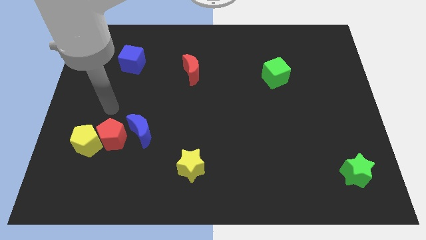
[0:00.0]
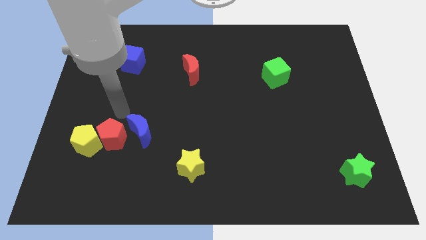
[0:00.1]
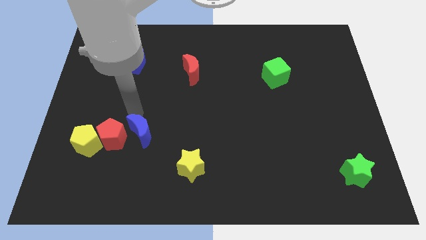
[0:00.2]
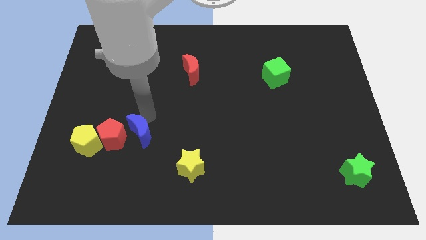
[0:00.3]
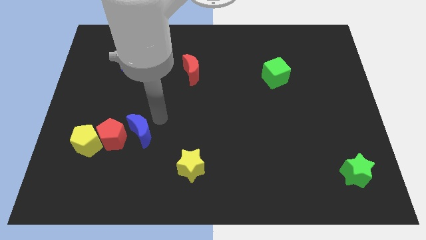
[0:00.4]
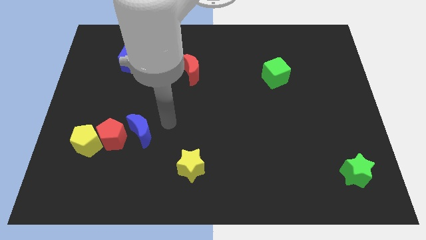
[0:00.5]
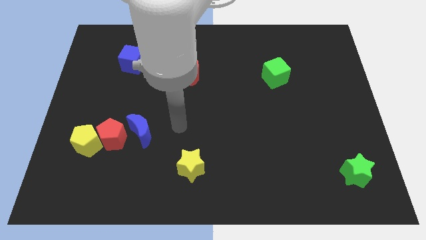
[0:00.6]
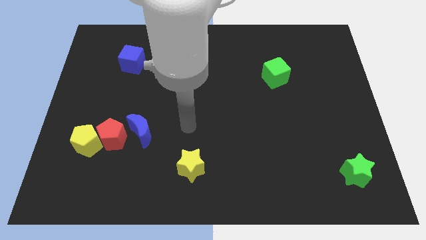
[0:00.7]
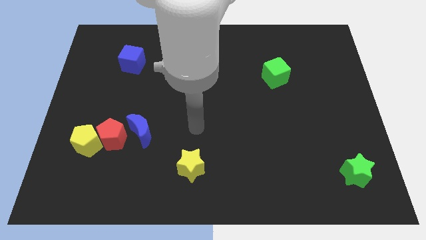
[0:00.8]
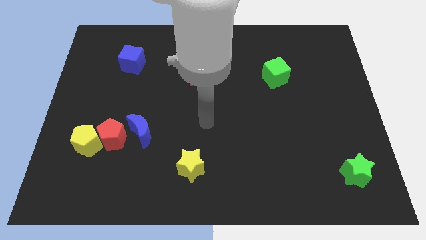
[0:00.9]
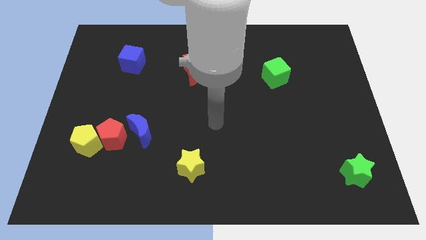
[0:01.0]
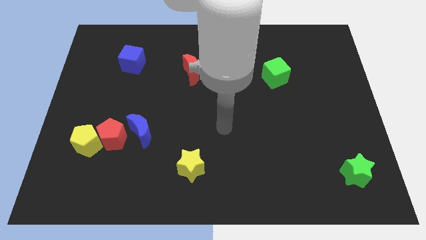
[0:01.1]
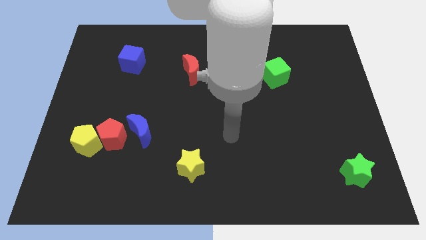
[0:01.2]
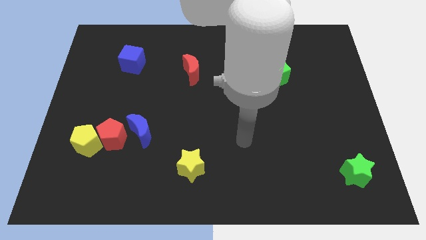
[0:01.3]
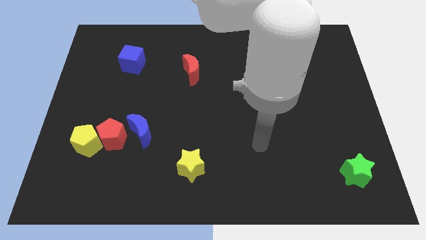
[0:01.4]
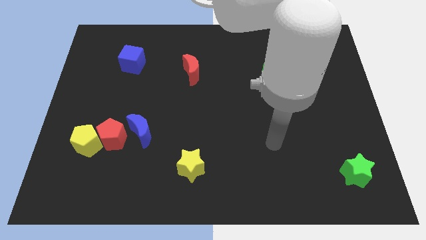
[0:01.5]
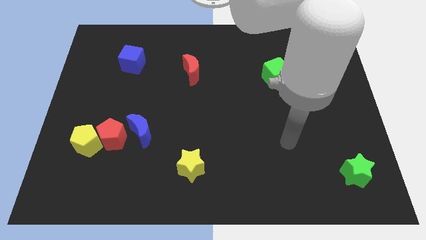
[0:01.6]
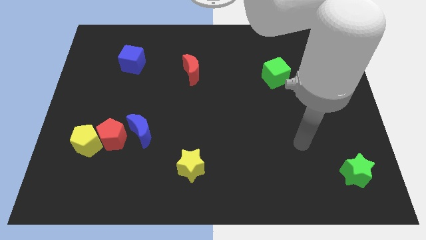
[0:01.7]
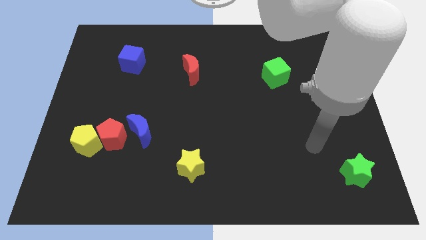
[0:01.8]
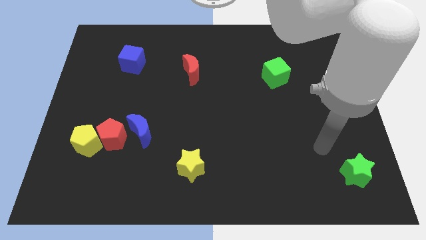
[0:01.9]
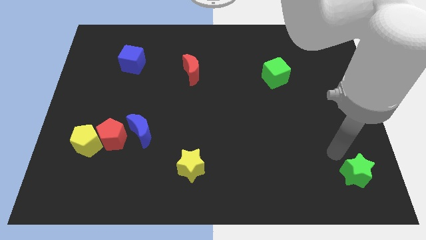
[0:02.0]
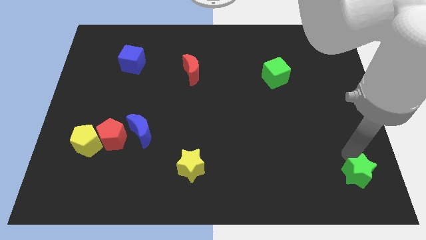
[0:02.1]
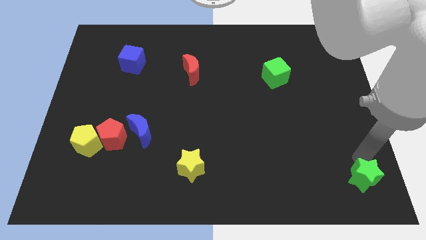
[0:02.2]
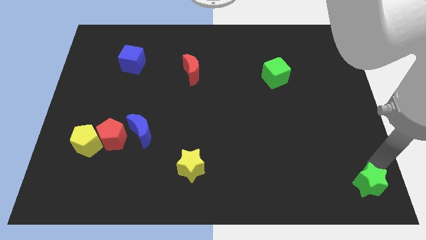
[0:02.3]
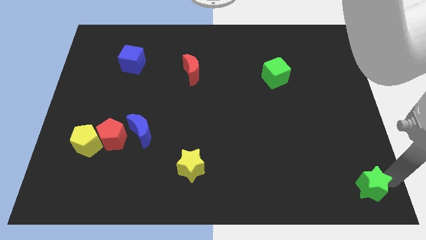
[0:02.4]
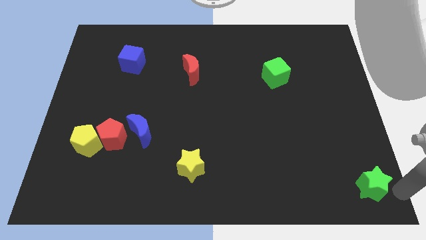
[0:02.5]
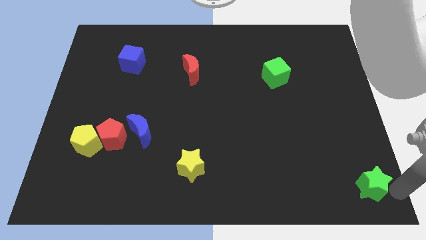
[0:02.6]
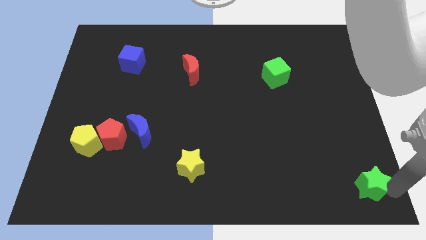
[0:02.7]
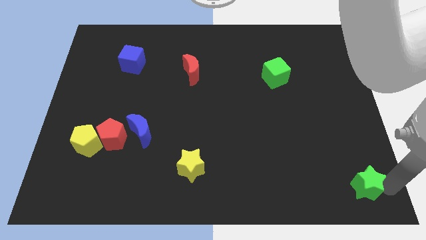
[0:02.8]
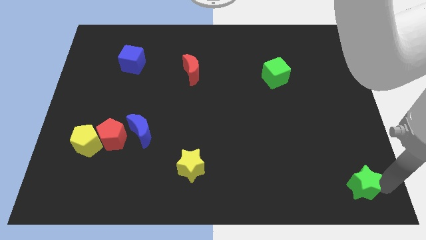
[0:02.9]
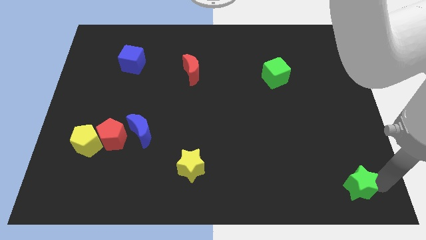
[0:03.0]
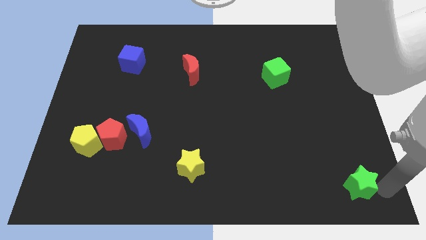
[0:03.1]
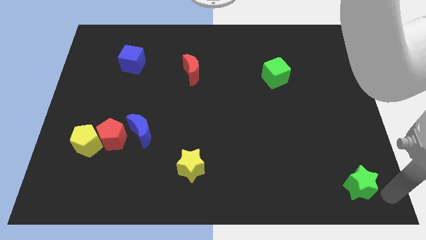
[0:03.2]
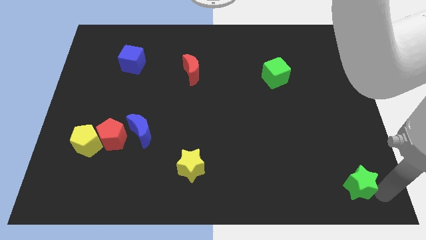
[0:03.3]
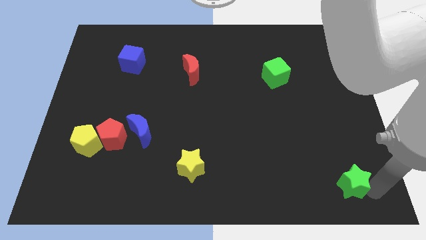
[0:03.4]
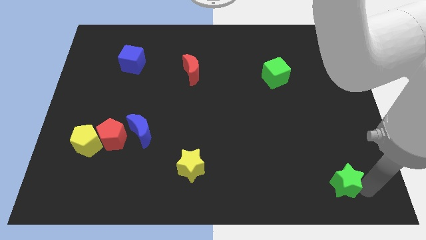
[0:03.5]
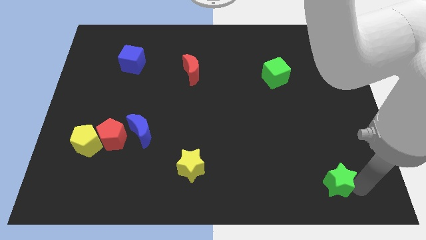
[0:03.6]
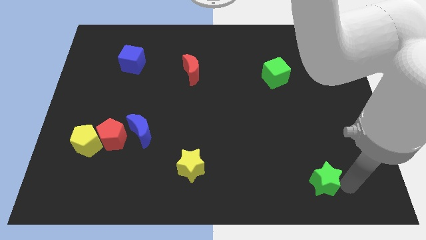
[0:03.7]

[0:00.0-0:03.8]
push the green star to the left slightly

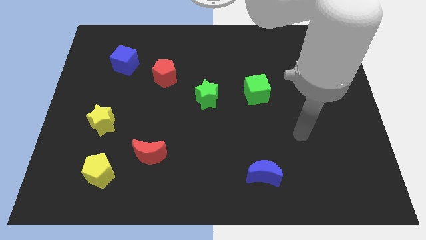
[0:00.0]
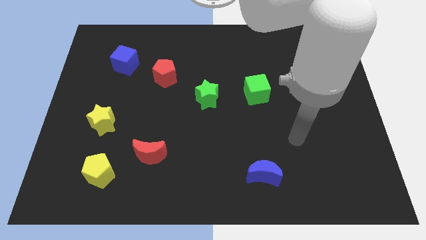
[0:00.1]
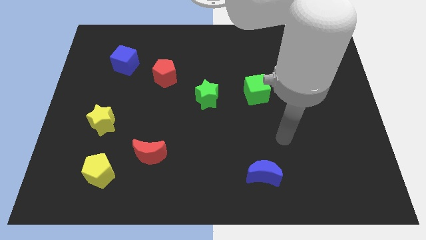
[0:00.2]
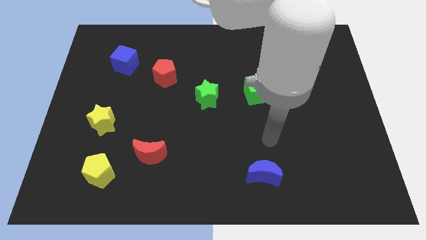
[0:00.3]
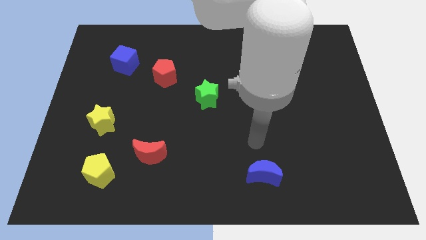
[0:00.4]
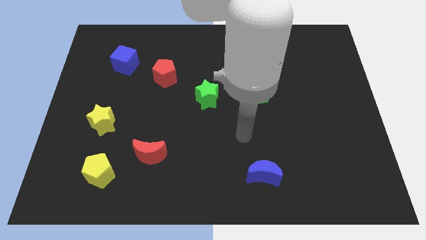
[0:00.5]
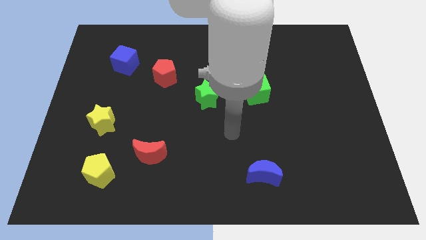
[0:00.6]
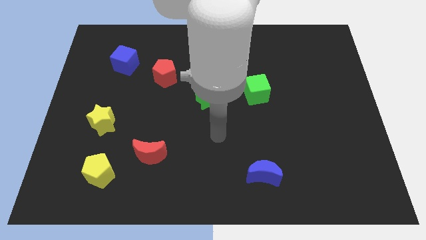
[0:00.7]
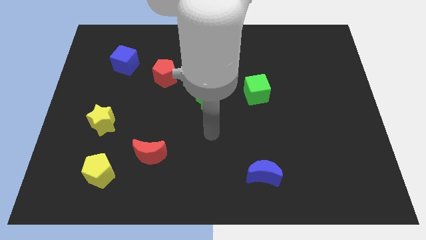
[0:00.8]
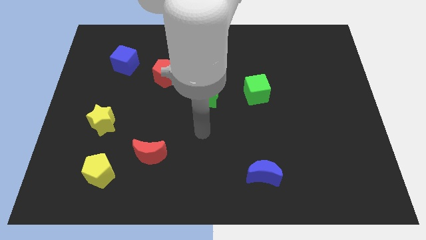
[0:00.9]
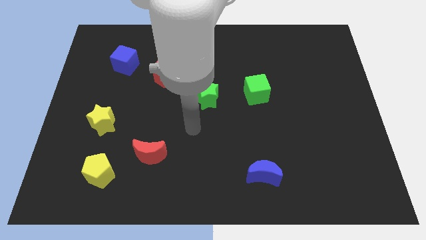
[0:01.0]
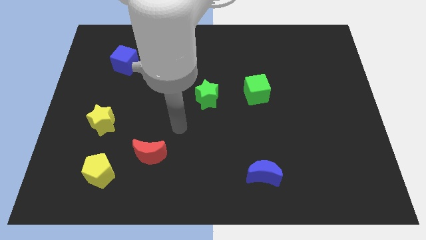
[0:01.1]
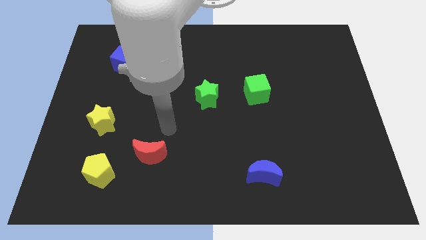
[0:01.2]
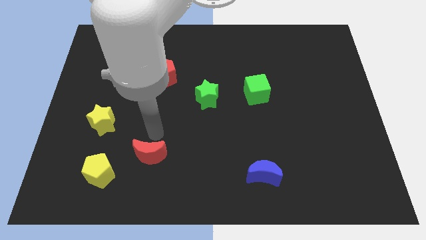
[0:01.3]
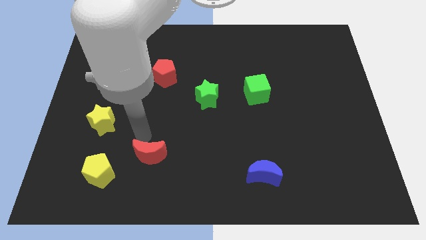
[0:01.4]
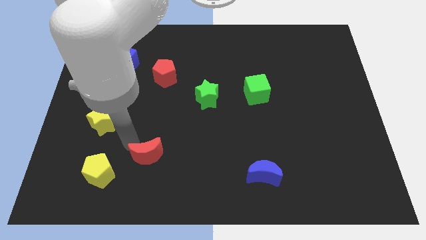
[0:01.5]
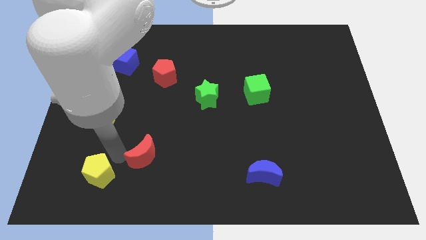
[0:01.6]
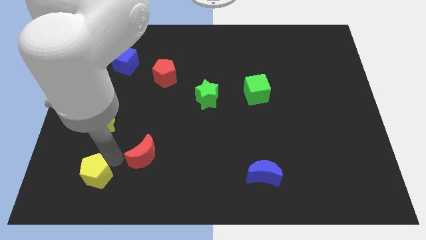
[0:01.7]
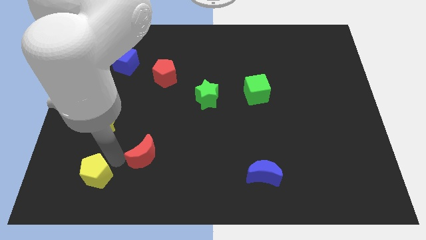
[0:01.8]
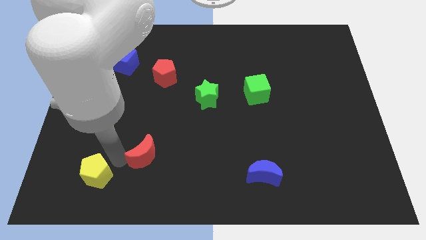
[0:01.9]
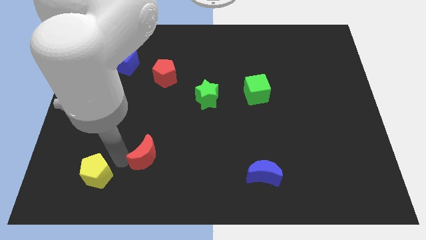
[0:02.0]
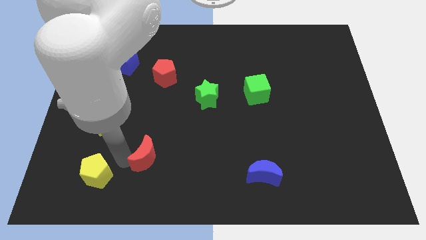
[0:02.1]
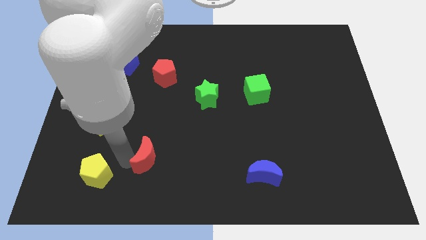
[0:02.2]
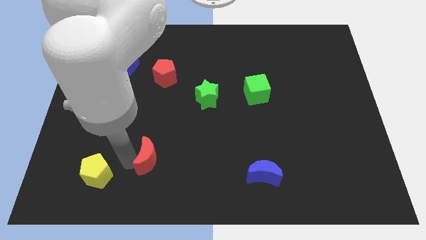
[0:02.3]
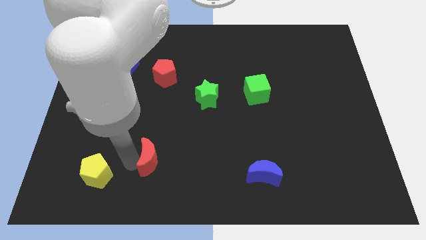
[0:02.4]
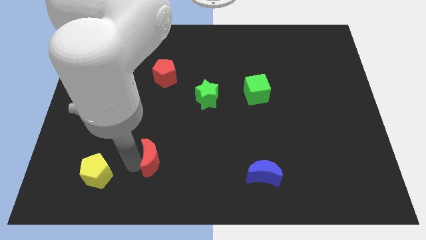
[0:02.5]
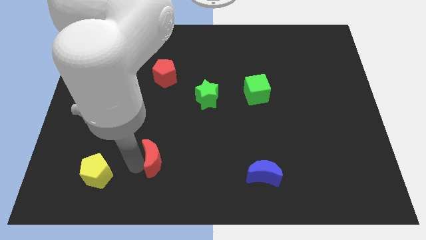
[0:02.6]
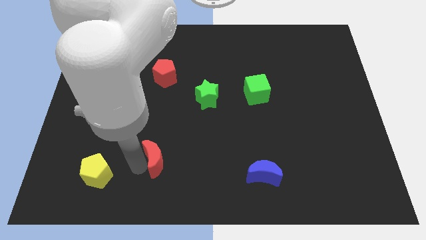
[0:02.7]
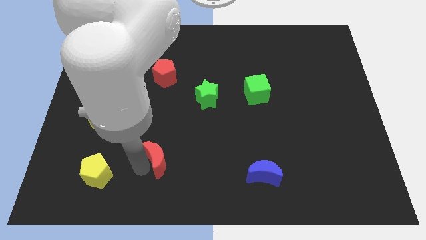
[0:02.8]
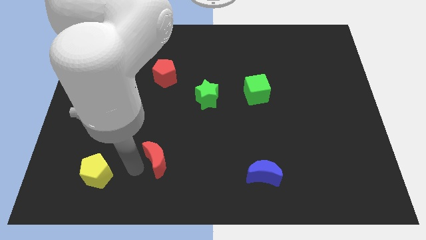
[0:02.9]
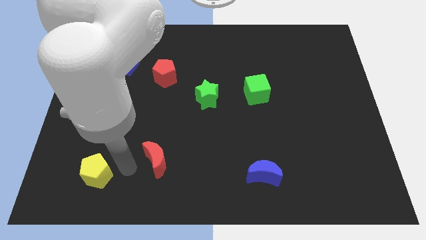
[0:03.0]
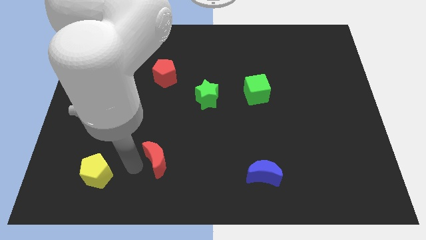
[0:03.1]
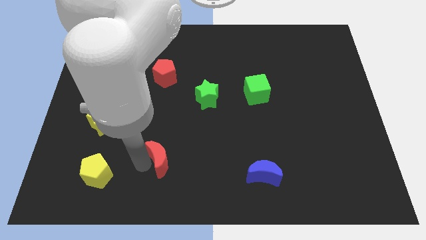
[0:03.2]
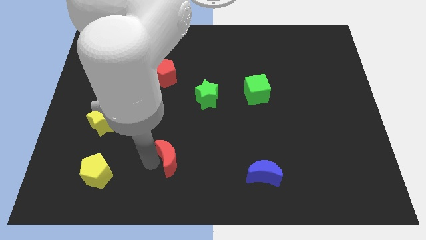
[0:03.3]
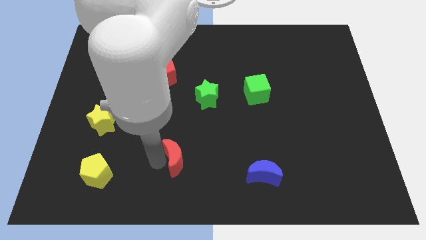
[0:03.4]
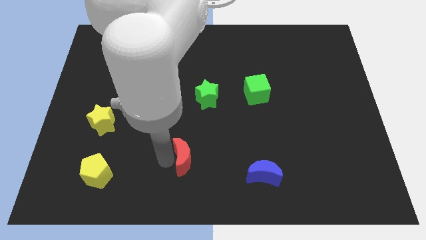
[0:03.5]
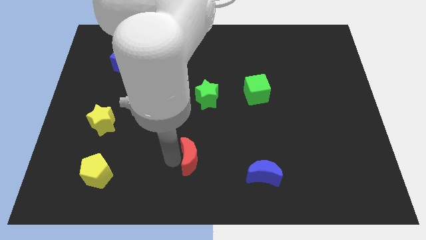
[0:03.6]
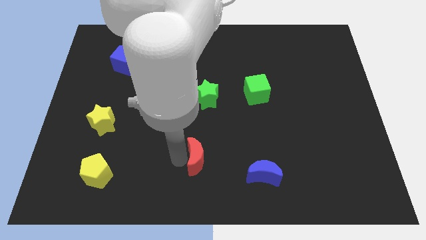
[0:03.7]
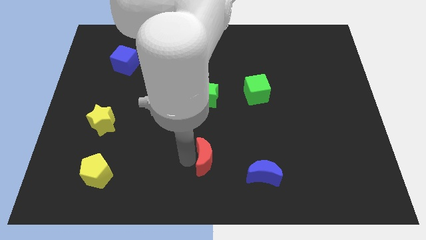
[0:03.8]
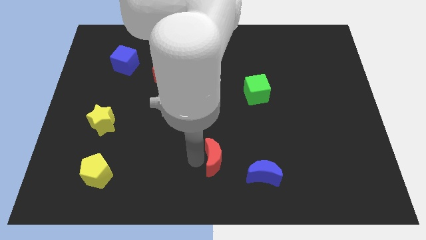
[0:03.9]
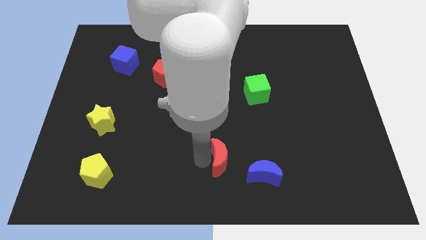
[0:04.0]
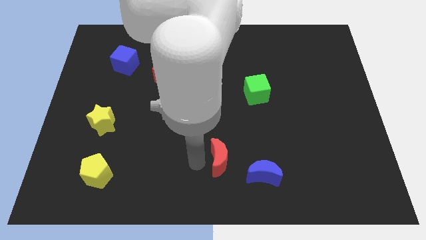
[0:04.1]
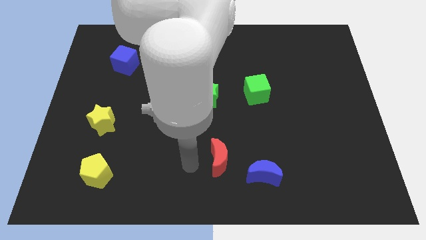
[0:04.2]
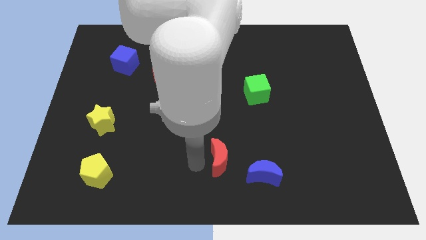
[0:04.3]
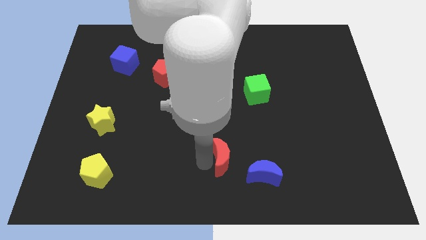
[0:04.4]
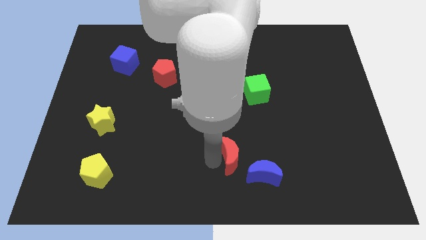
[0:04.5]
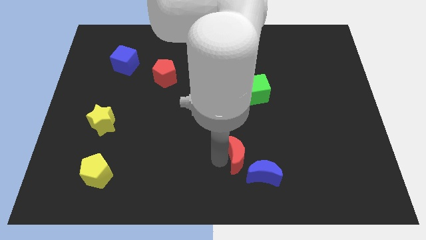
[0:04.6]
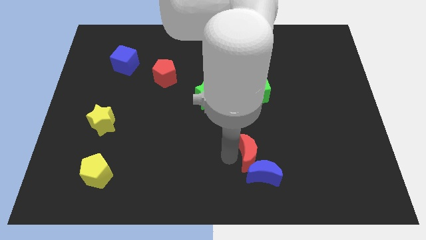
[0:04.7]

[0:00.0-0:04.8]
slide the red moon to the right
